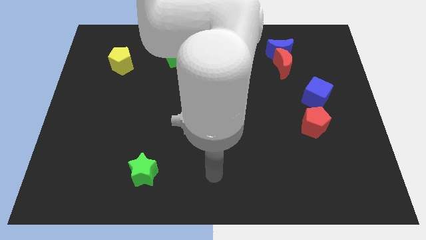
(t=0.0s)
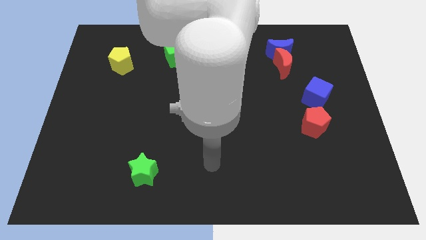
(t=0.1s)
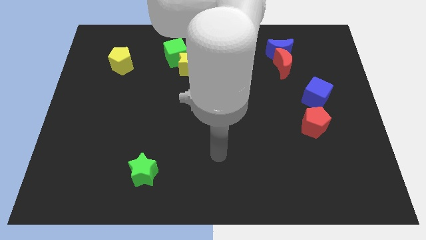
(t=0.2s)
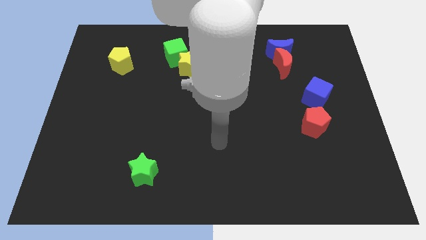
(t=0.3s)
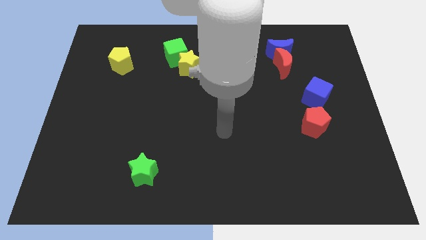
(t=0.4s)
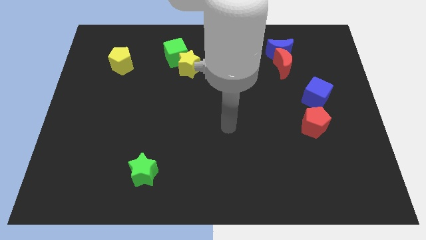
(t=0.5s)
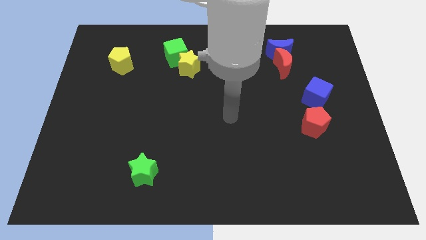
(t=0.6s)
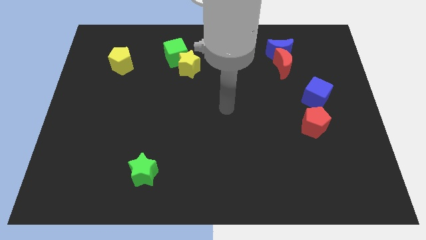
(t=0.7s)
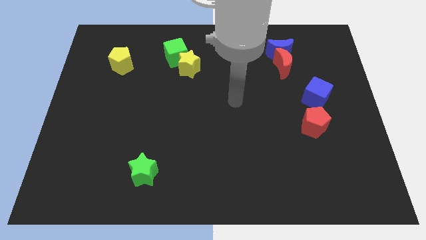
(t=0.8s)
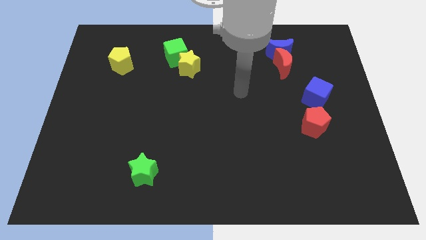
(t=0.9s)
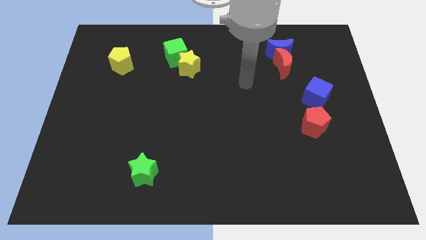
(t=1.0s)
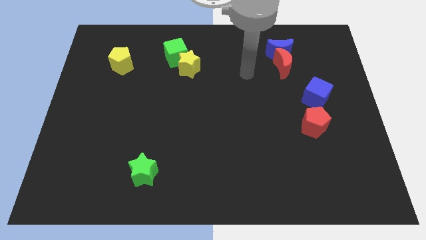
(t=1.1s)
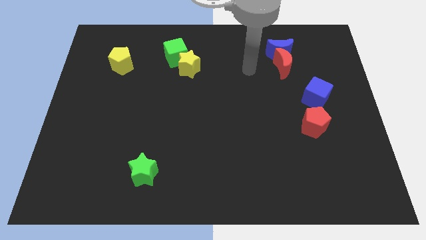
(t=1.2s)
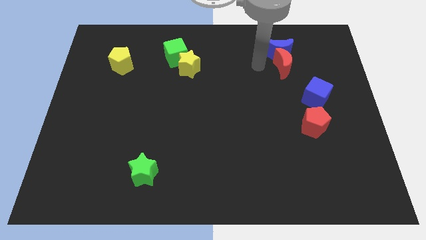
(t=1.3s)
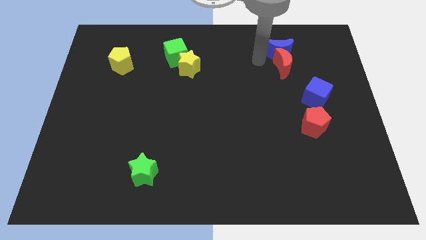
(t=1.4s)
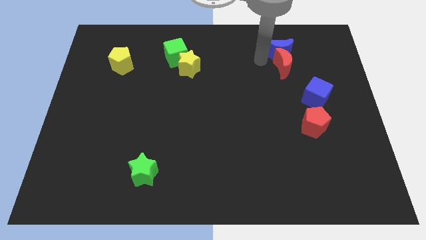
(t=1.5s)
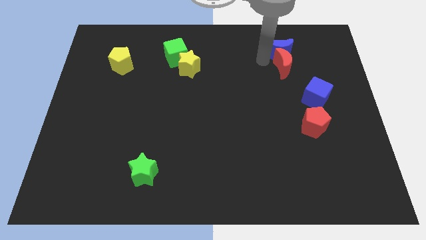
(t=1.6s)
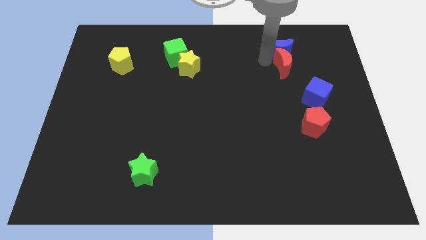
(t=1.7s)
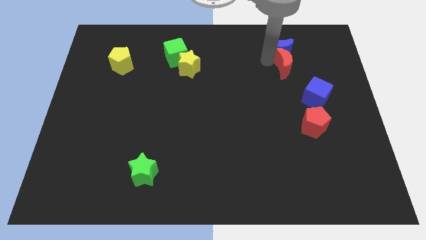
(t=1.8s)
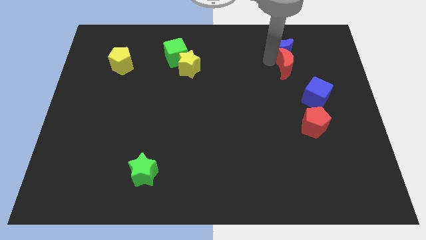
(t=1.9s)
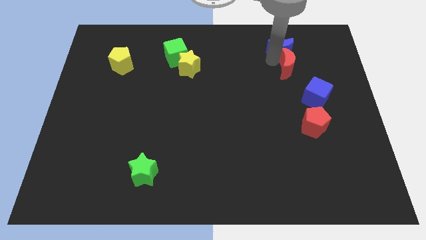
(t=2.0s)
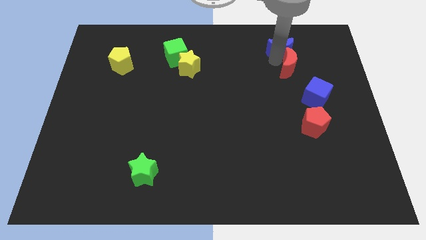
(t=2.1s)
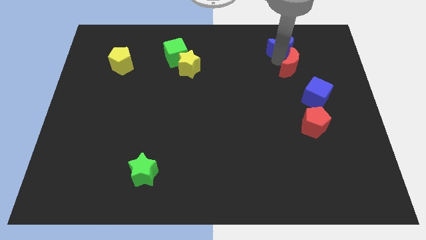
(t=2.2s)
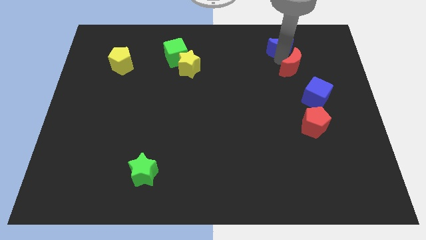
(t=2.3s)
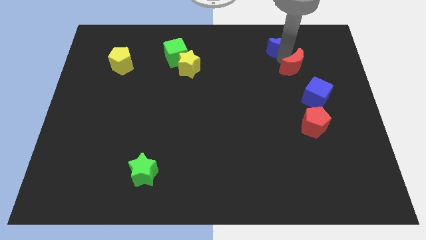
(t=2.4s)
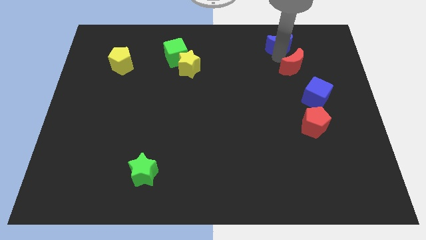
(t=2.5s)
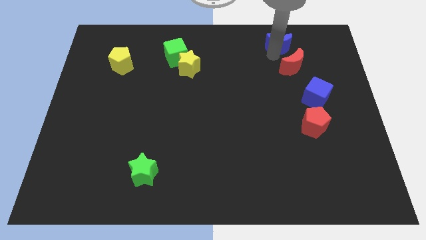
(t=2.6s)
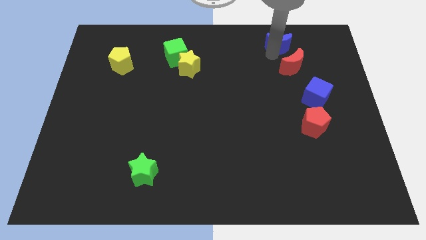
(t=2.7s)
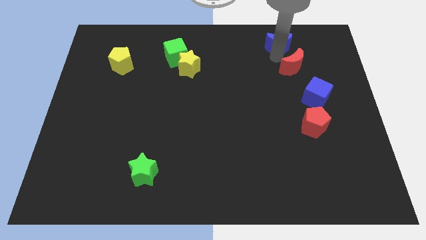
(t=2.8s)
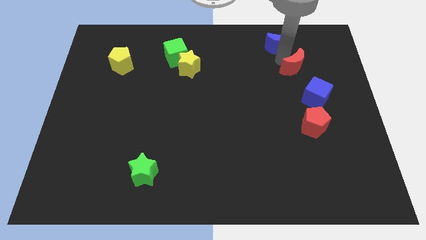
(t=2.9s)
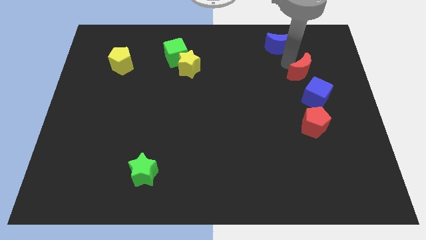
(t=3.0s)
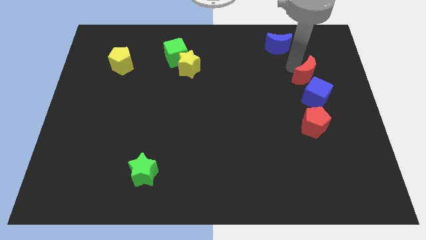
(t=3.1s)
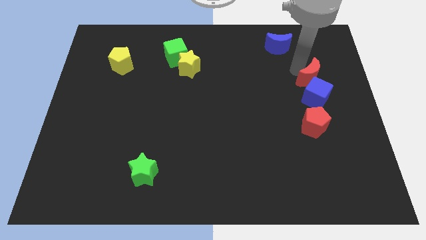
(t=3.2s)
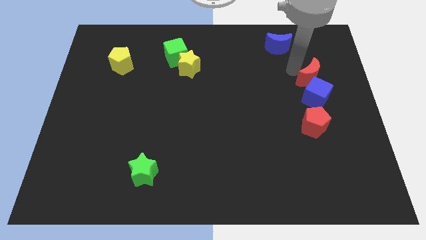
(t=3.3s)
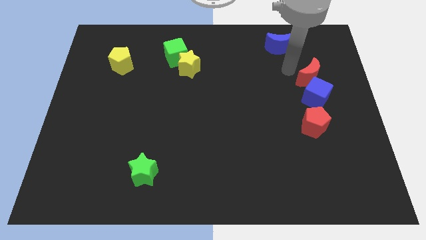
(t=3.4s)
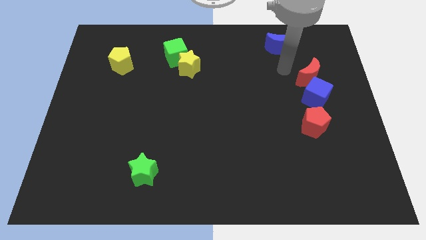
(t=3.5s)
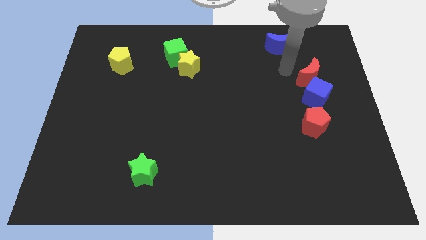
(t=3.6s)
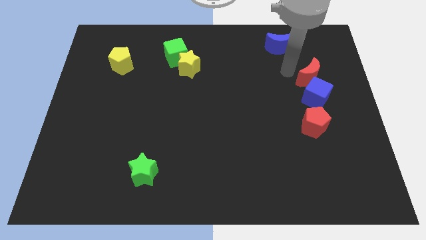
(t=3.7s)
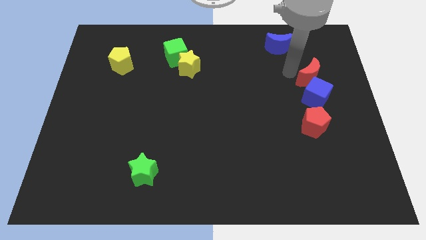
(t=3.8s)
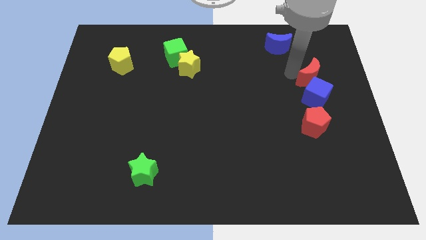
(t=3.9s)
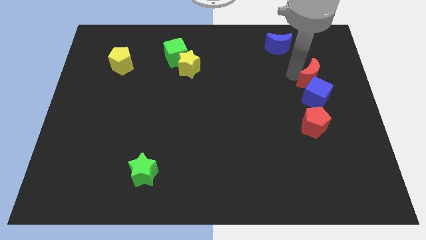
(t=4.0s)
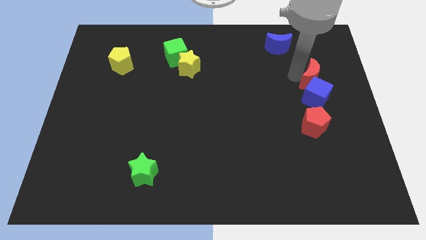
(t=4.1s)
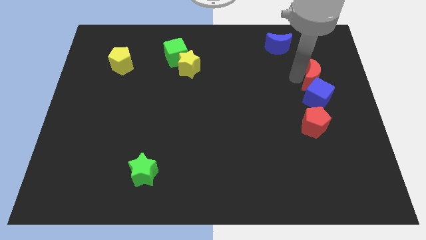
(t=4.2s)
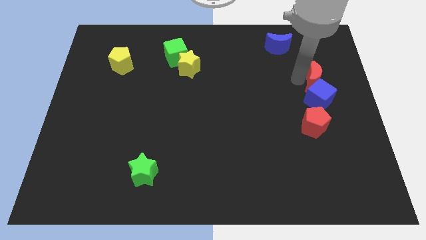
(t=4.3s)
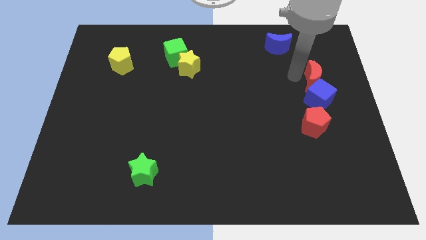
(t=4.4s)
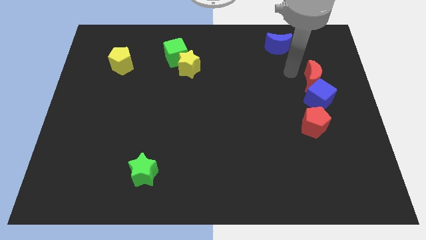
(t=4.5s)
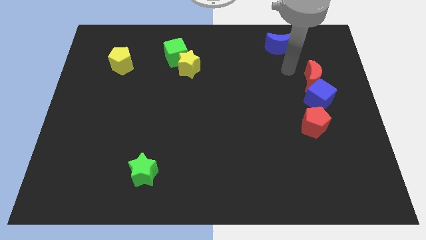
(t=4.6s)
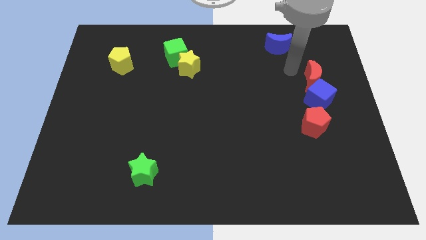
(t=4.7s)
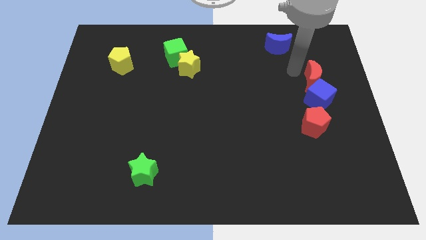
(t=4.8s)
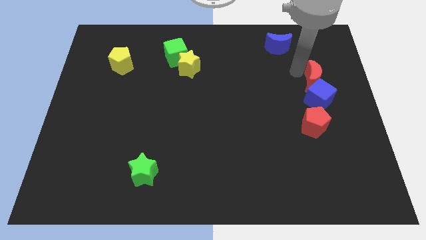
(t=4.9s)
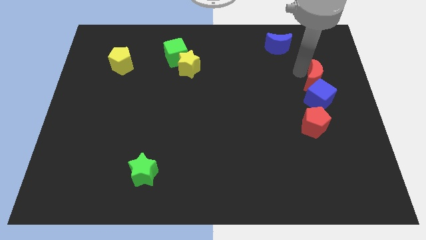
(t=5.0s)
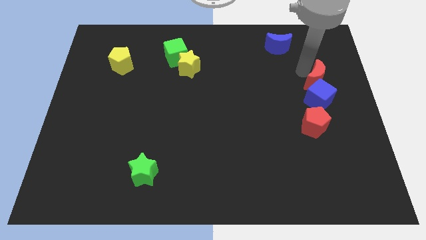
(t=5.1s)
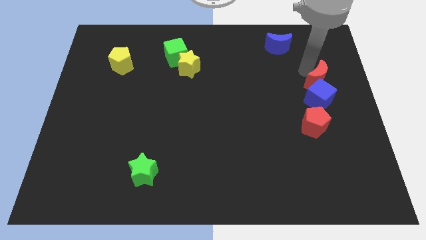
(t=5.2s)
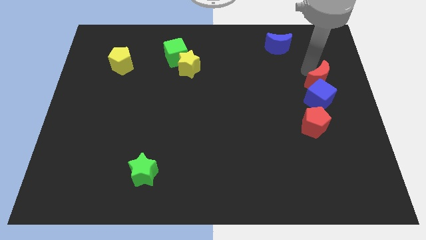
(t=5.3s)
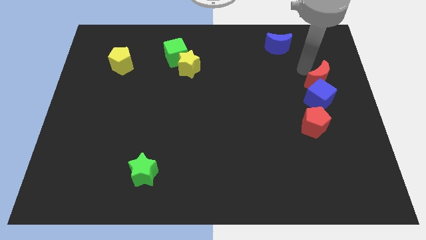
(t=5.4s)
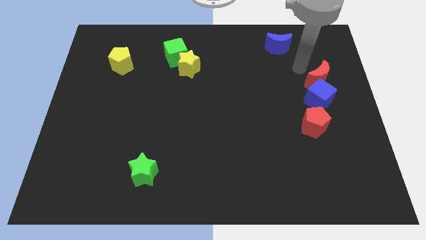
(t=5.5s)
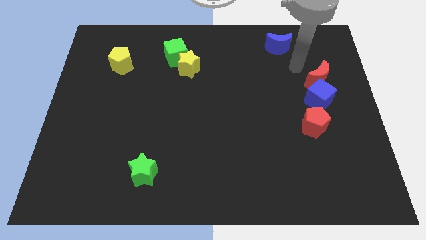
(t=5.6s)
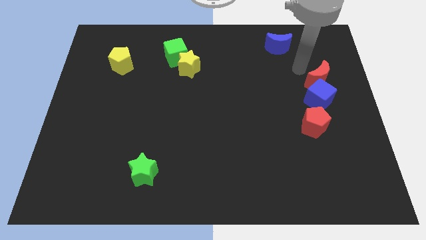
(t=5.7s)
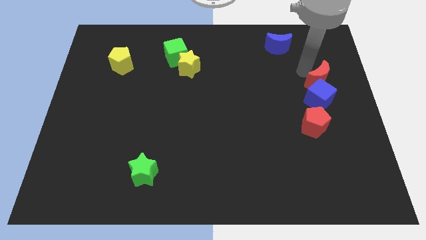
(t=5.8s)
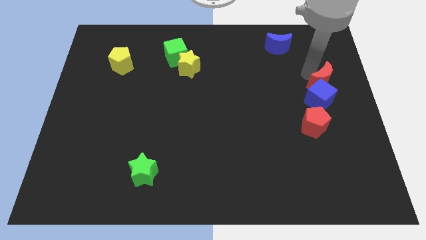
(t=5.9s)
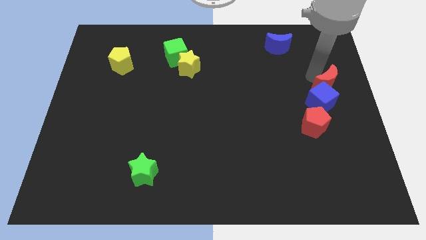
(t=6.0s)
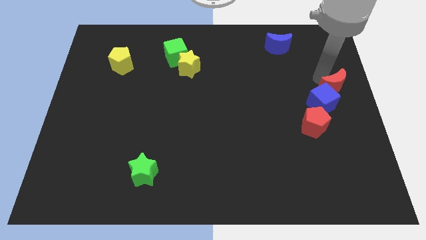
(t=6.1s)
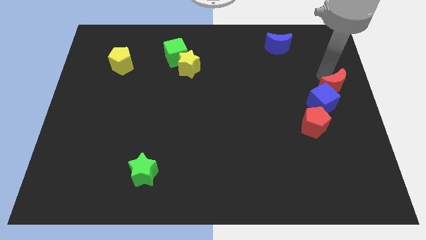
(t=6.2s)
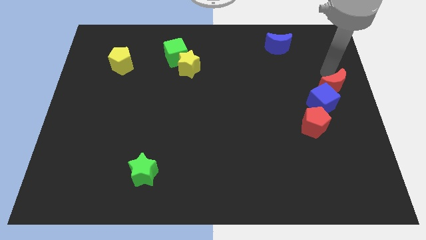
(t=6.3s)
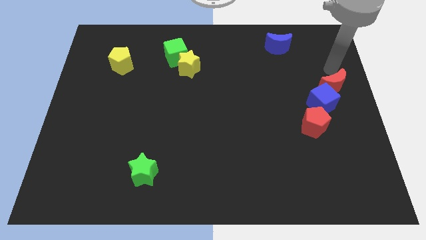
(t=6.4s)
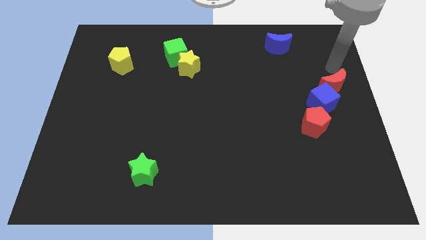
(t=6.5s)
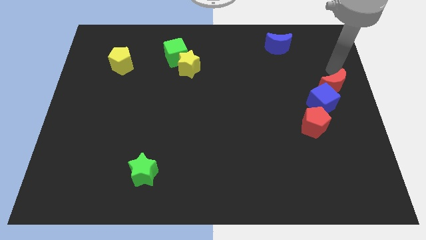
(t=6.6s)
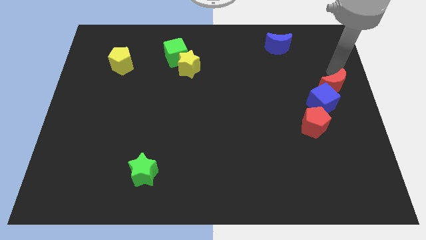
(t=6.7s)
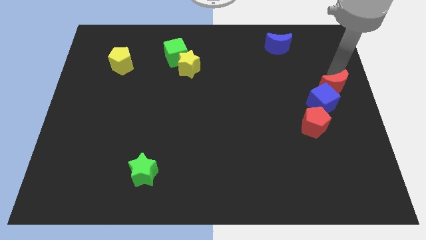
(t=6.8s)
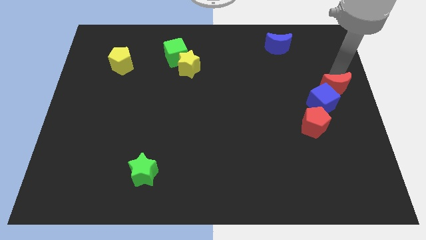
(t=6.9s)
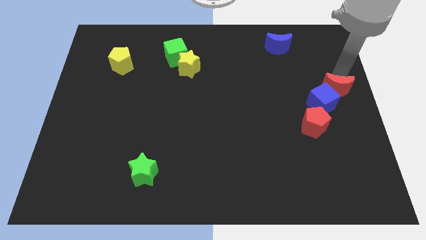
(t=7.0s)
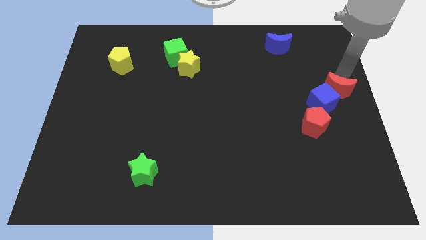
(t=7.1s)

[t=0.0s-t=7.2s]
move the red moon to the top right side of the red pentagon
